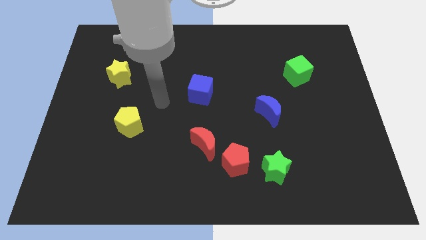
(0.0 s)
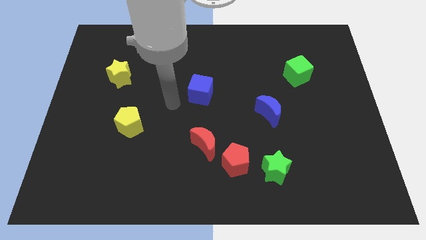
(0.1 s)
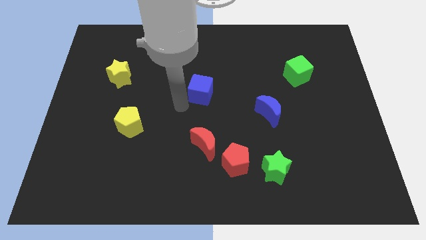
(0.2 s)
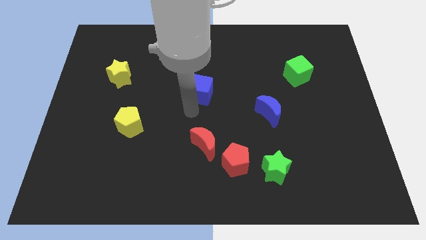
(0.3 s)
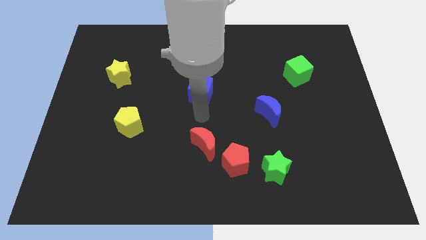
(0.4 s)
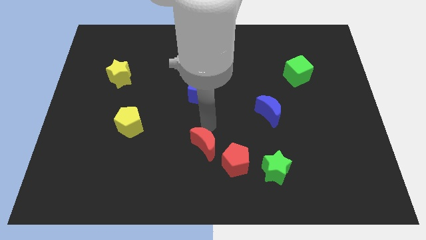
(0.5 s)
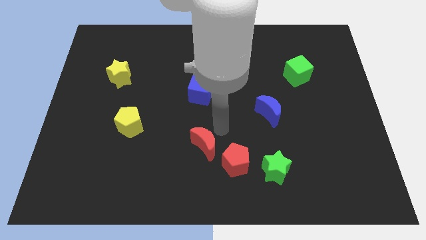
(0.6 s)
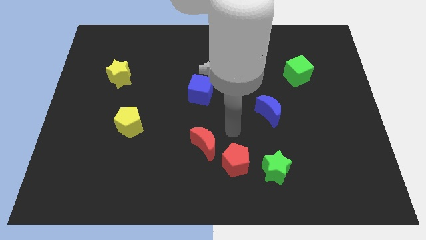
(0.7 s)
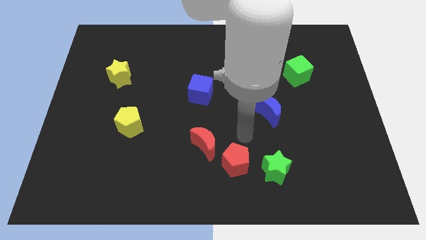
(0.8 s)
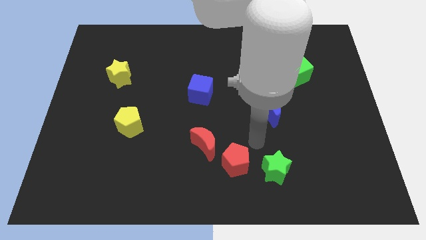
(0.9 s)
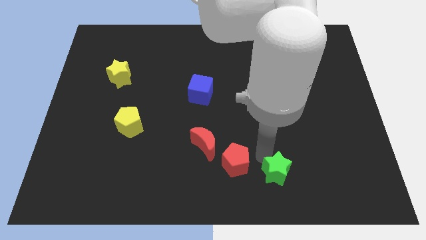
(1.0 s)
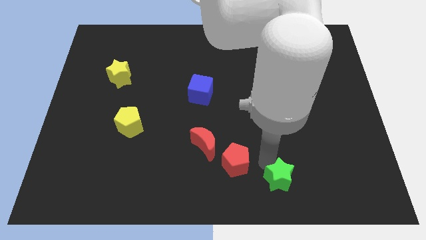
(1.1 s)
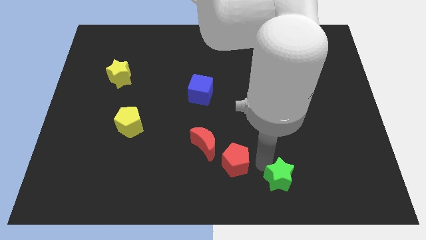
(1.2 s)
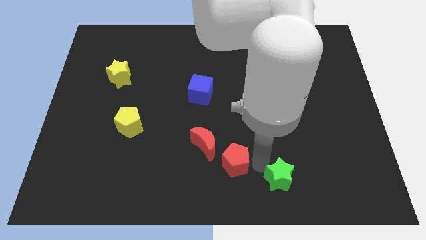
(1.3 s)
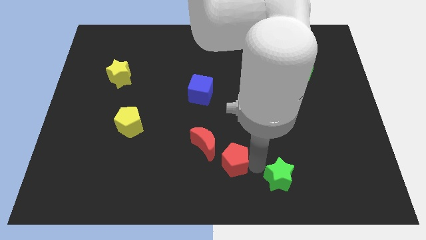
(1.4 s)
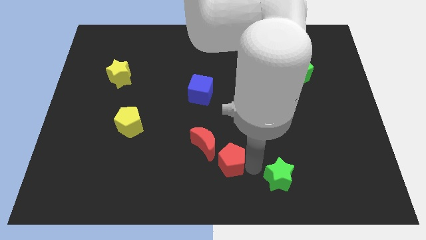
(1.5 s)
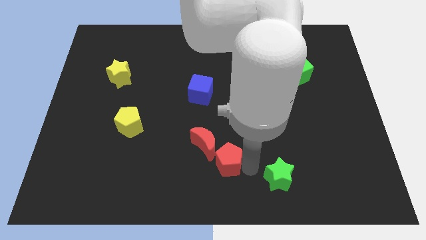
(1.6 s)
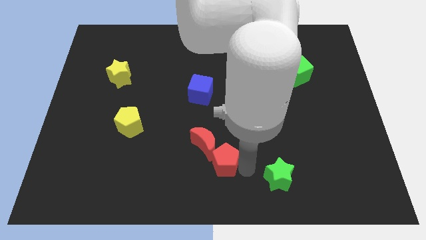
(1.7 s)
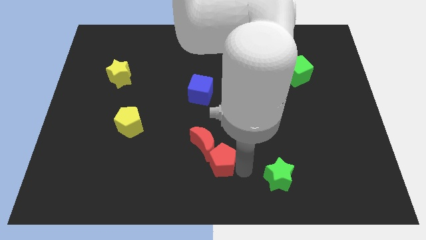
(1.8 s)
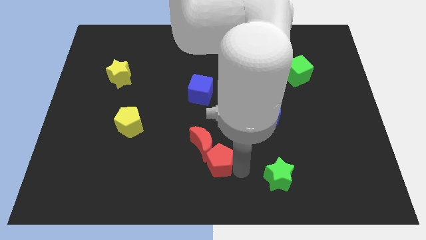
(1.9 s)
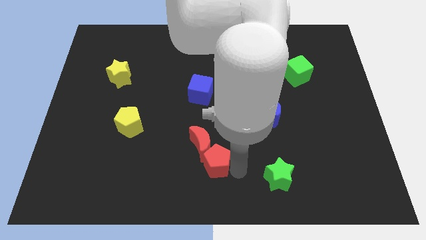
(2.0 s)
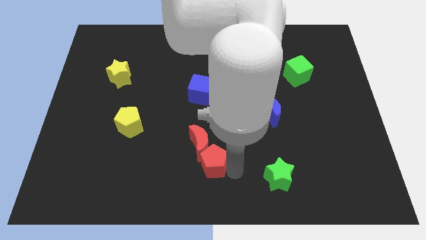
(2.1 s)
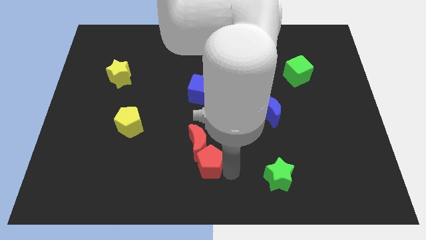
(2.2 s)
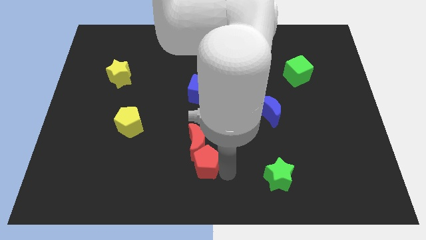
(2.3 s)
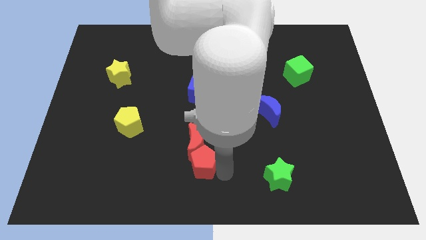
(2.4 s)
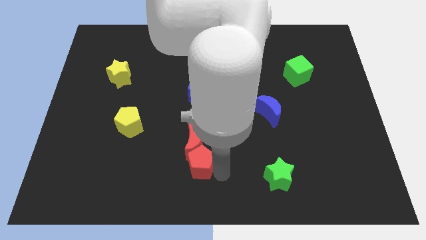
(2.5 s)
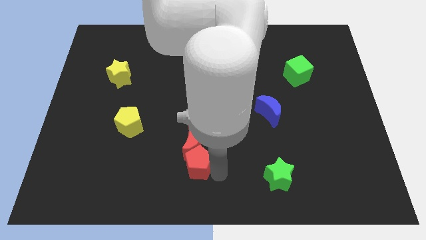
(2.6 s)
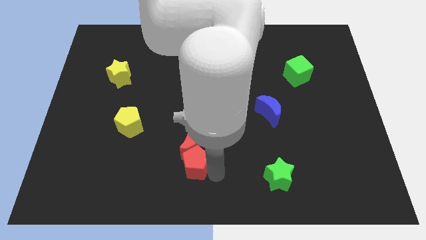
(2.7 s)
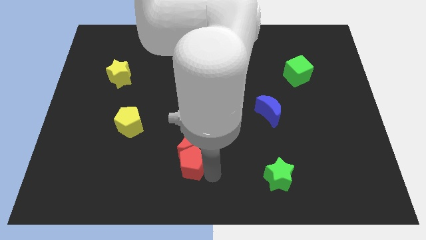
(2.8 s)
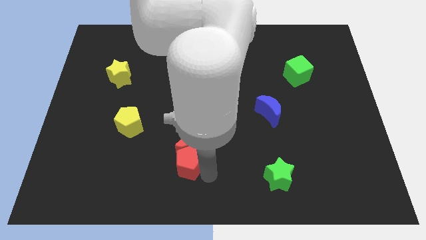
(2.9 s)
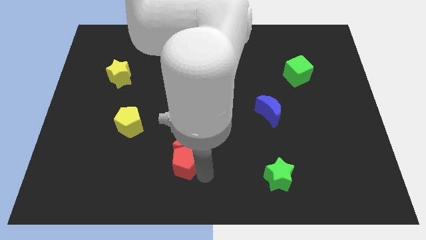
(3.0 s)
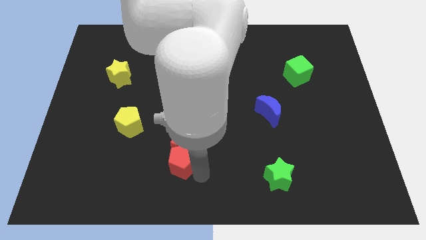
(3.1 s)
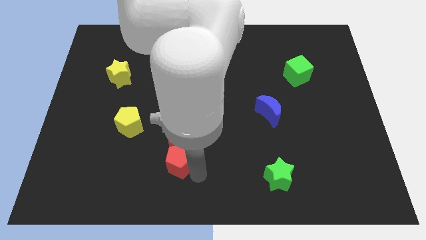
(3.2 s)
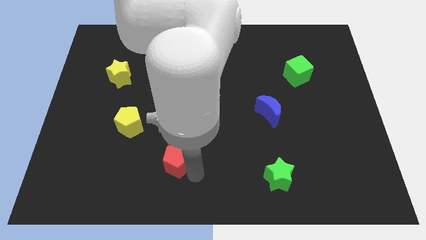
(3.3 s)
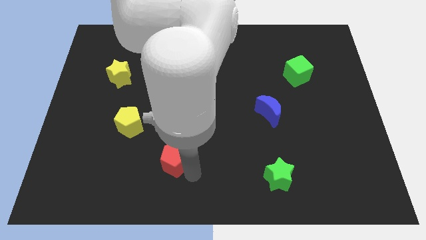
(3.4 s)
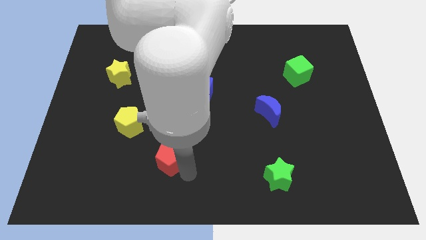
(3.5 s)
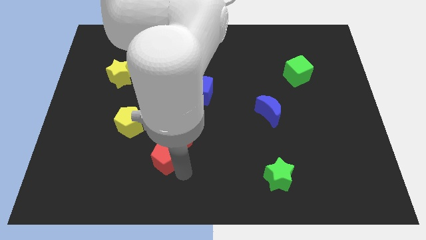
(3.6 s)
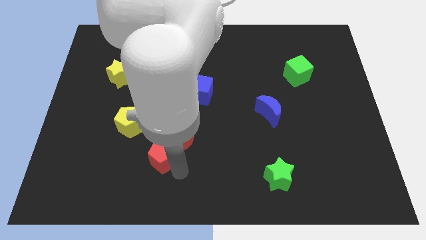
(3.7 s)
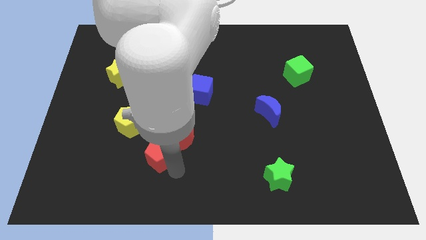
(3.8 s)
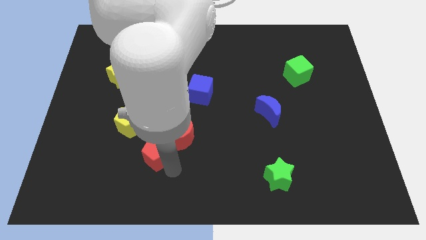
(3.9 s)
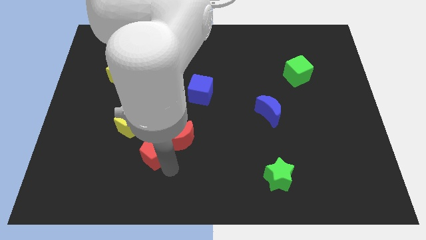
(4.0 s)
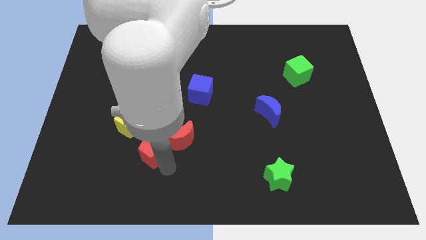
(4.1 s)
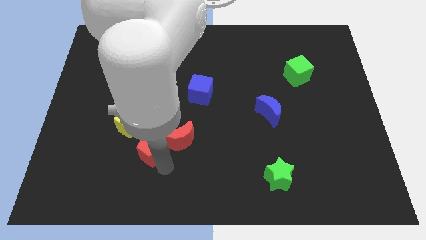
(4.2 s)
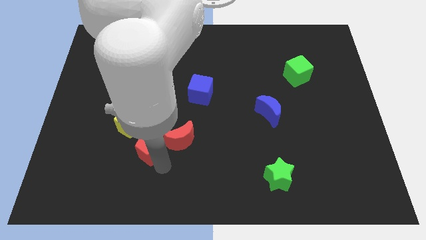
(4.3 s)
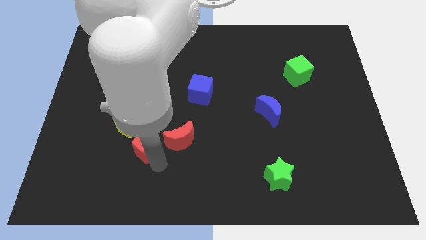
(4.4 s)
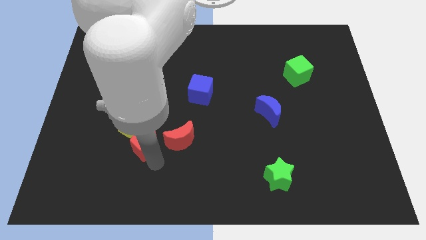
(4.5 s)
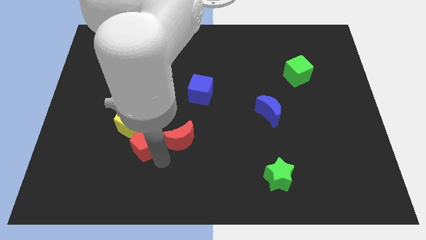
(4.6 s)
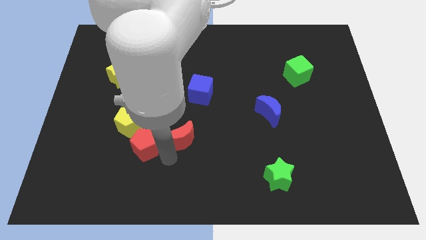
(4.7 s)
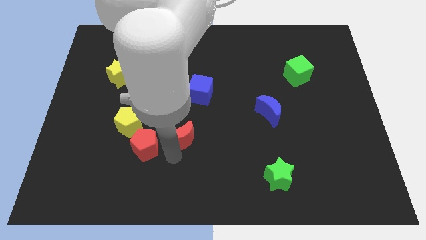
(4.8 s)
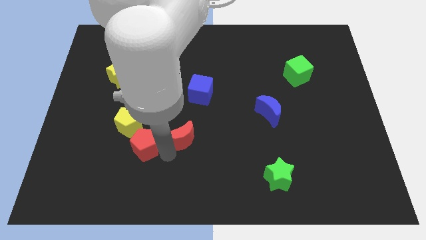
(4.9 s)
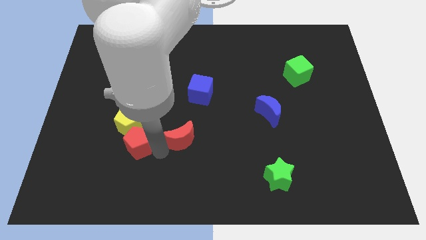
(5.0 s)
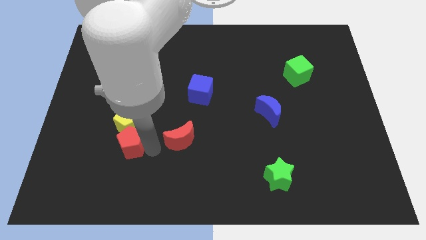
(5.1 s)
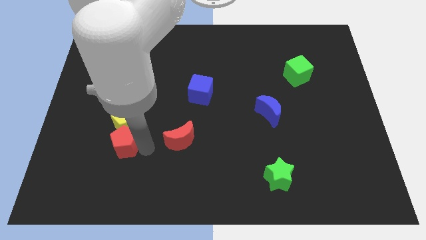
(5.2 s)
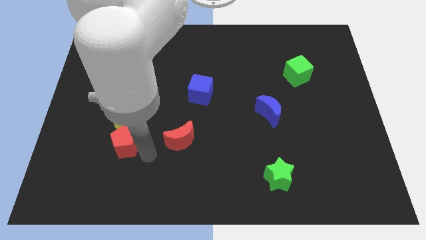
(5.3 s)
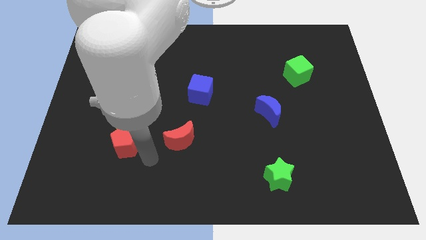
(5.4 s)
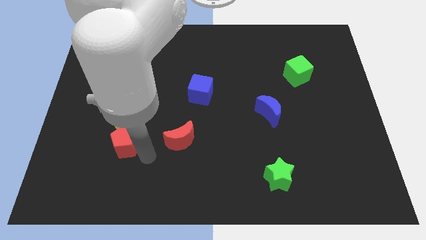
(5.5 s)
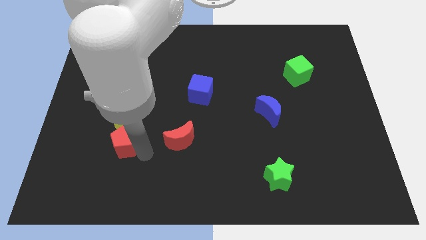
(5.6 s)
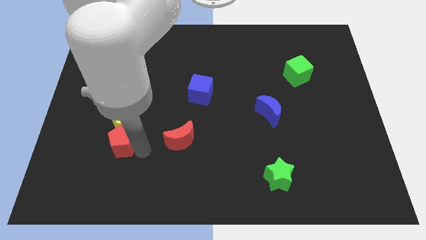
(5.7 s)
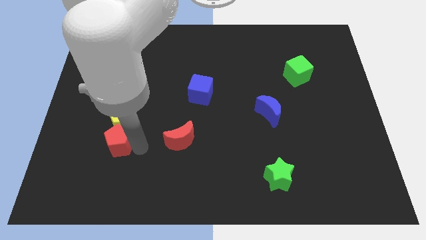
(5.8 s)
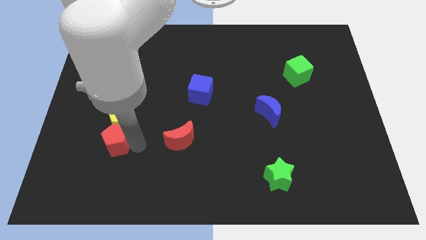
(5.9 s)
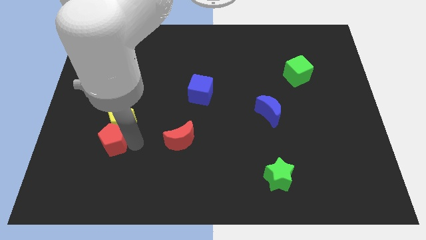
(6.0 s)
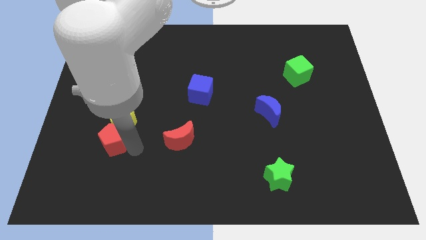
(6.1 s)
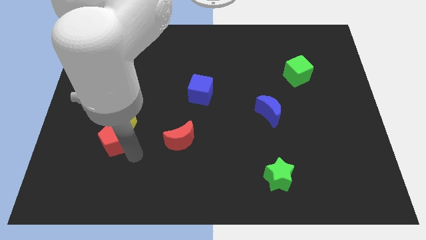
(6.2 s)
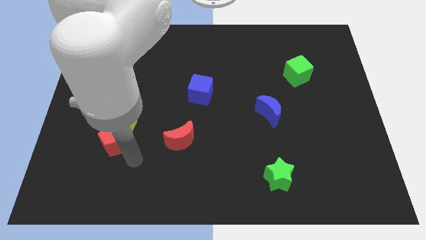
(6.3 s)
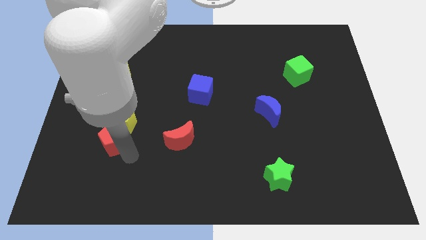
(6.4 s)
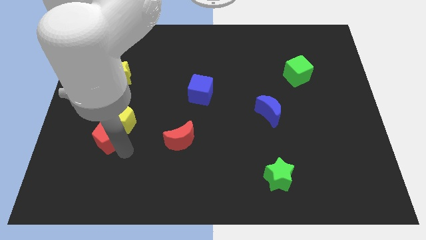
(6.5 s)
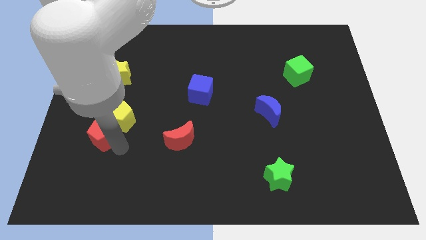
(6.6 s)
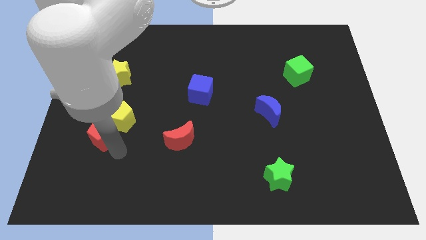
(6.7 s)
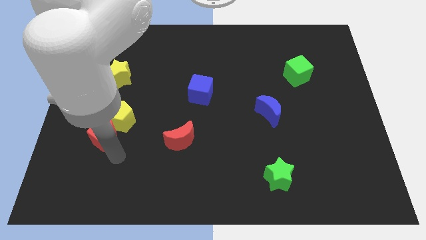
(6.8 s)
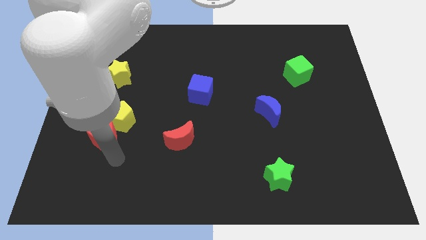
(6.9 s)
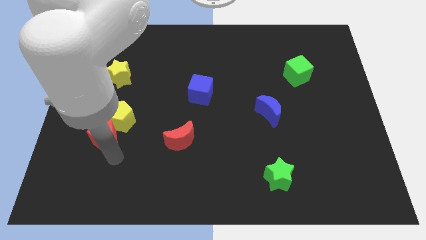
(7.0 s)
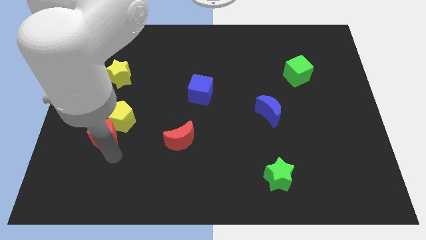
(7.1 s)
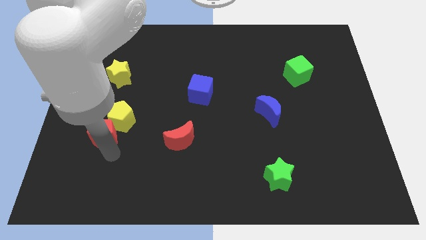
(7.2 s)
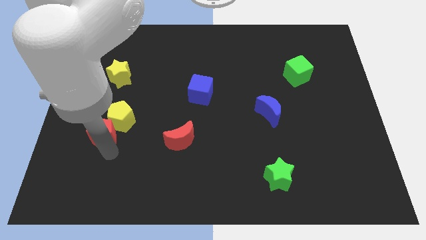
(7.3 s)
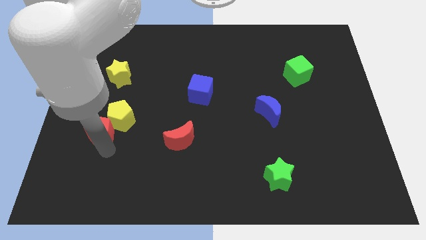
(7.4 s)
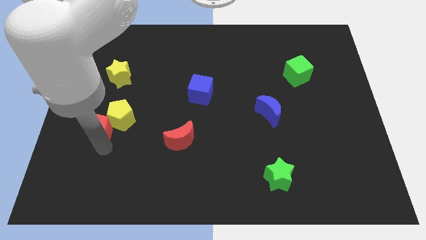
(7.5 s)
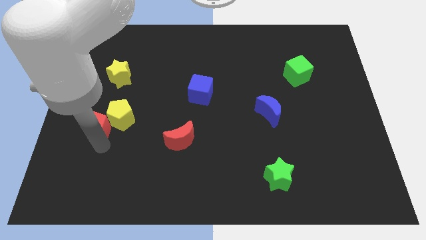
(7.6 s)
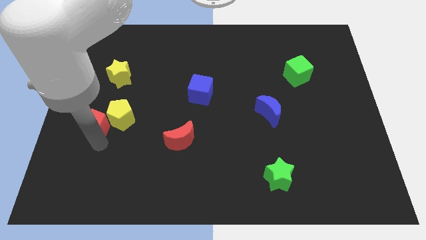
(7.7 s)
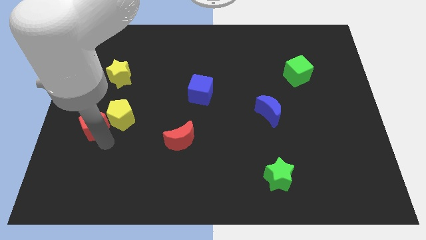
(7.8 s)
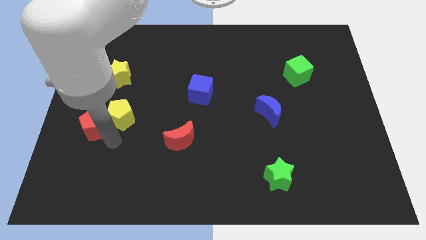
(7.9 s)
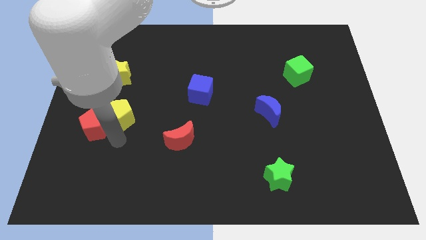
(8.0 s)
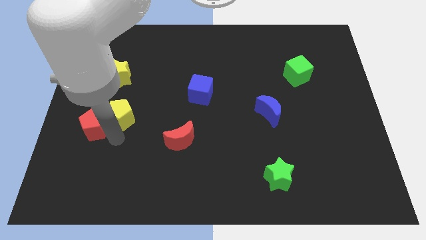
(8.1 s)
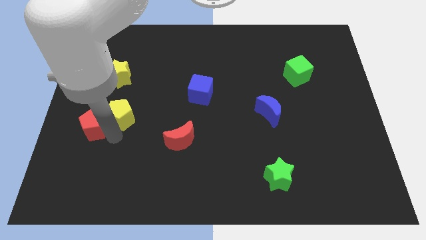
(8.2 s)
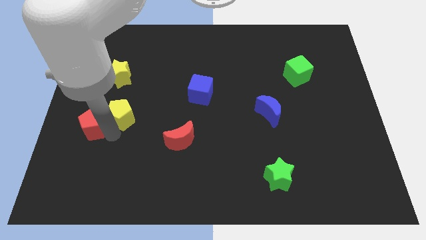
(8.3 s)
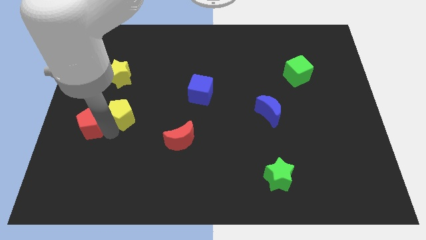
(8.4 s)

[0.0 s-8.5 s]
put the red pentagon to the left side
